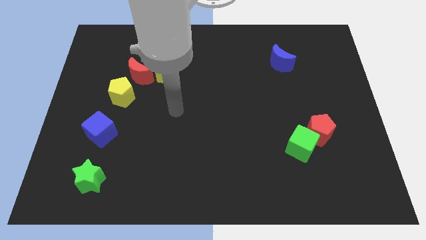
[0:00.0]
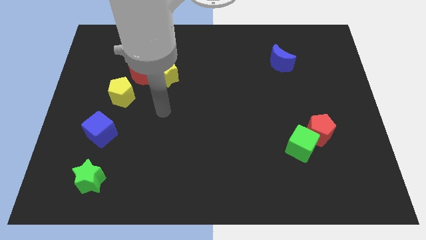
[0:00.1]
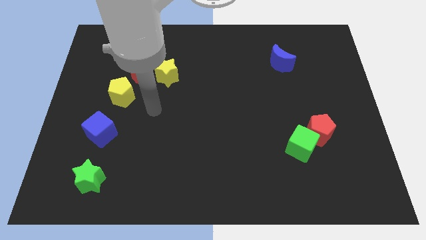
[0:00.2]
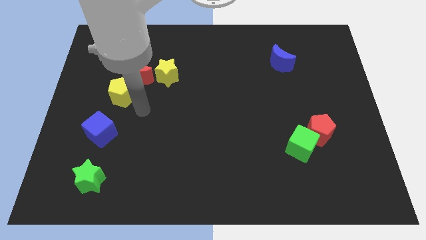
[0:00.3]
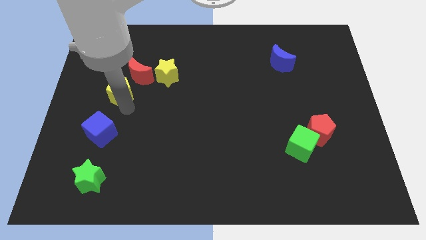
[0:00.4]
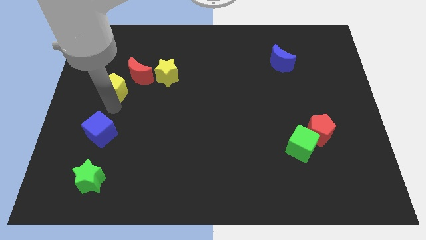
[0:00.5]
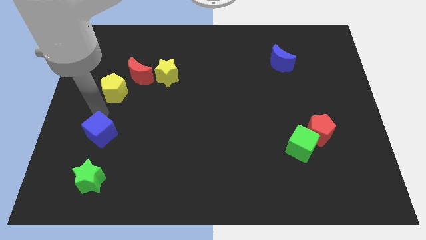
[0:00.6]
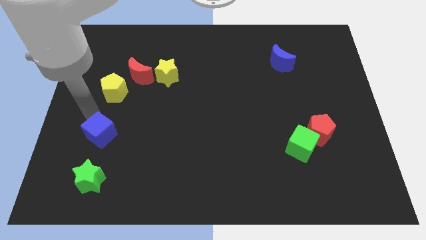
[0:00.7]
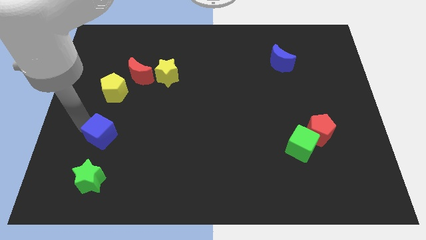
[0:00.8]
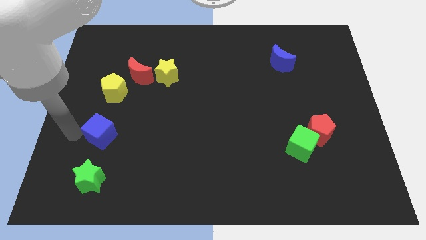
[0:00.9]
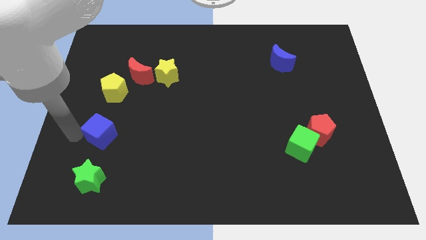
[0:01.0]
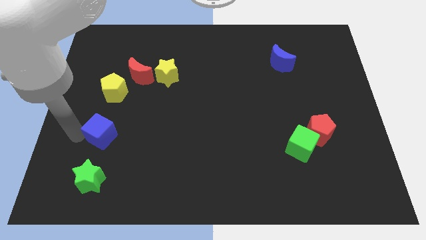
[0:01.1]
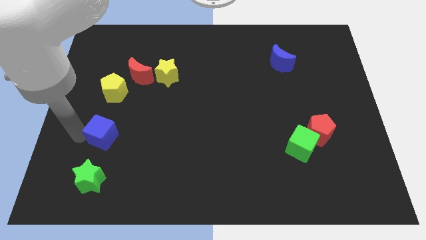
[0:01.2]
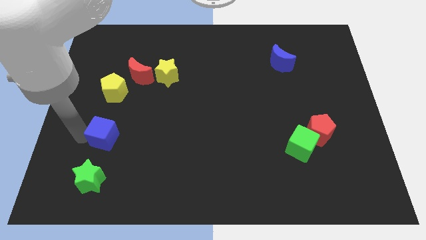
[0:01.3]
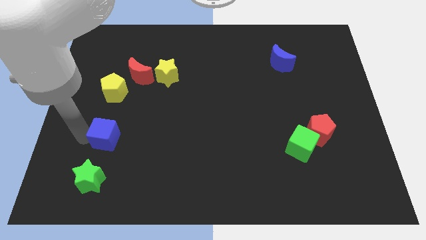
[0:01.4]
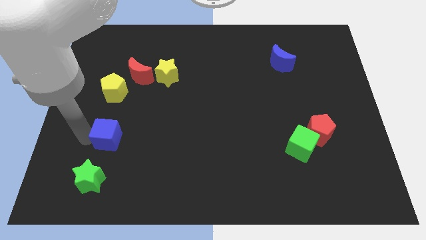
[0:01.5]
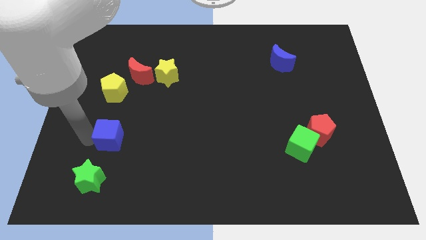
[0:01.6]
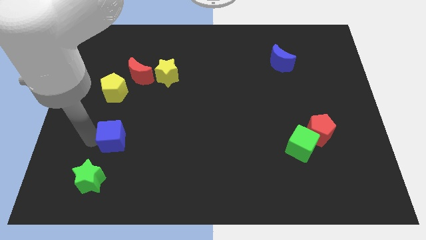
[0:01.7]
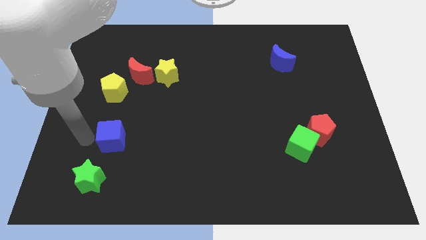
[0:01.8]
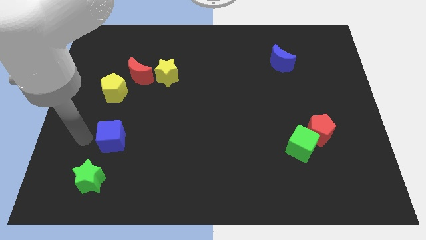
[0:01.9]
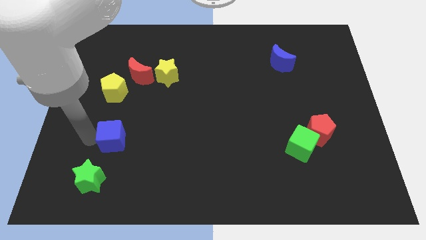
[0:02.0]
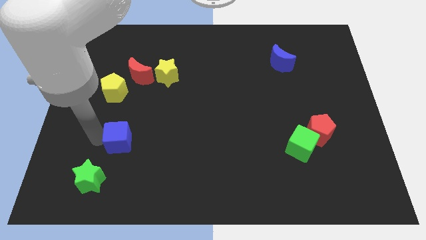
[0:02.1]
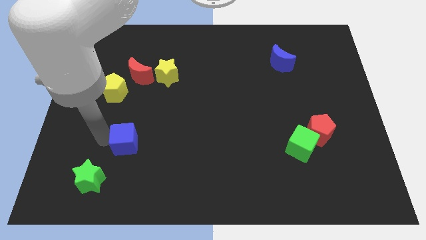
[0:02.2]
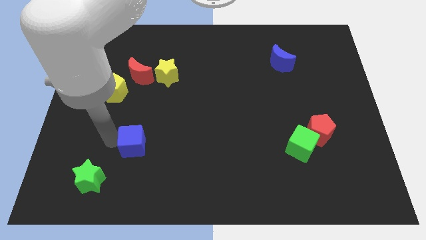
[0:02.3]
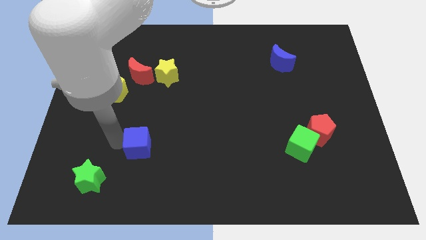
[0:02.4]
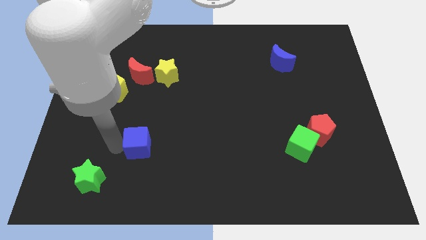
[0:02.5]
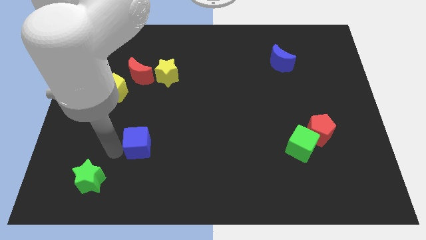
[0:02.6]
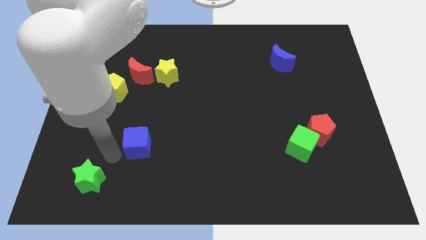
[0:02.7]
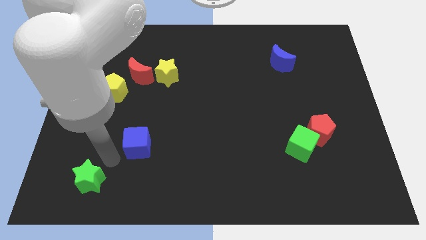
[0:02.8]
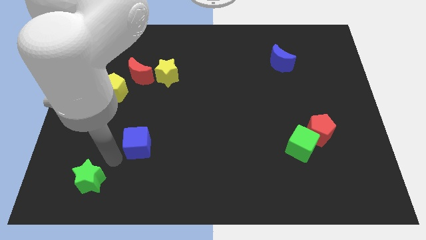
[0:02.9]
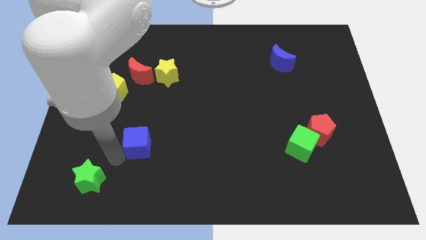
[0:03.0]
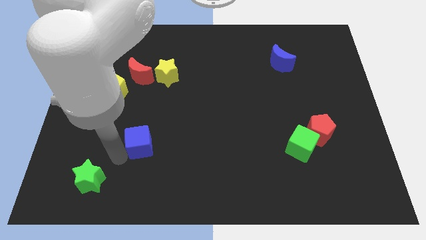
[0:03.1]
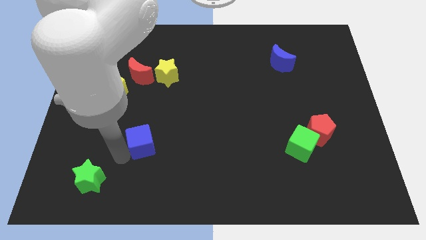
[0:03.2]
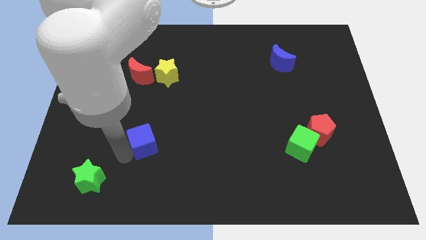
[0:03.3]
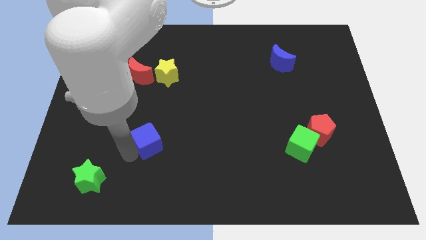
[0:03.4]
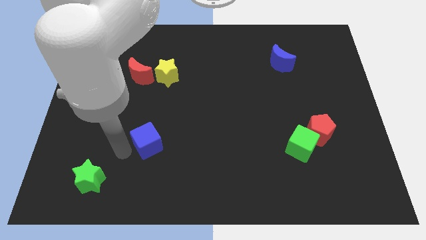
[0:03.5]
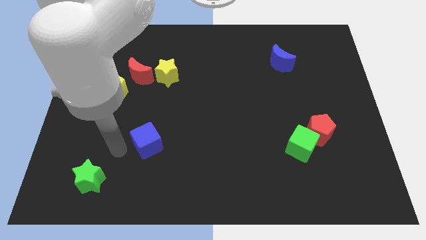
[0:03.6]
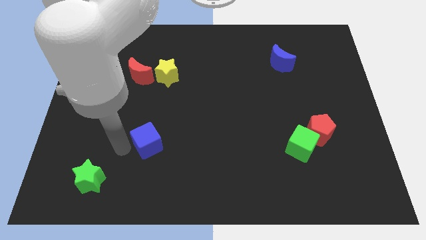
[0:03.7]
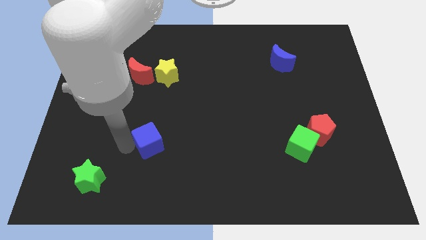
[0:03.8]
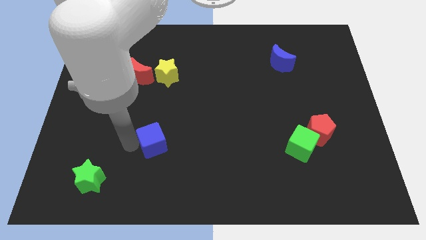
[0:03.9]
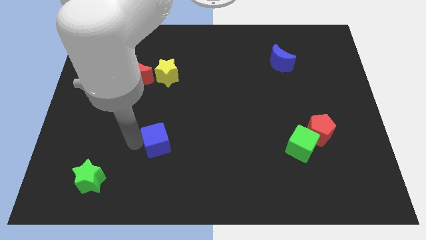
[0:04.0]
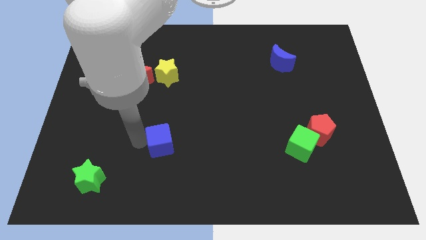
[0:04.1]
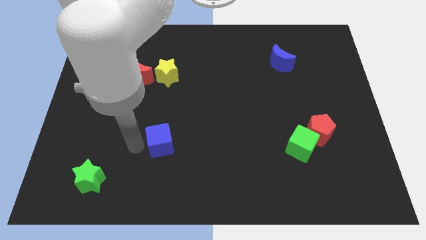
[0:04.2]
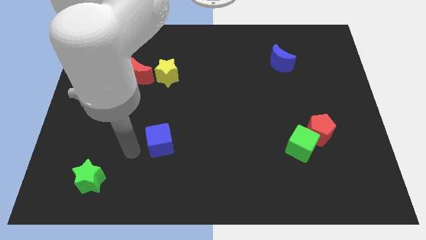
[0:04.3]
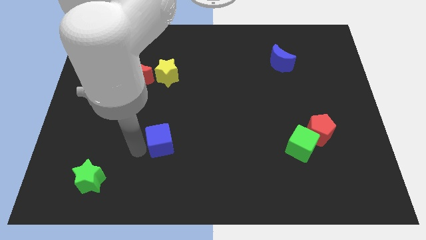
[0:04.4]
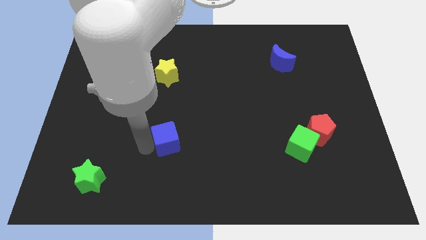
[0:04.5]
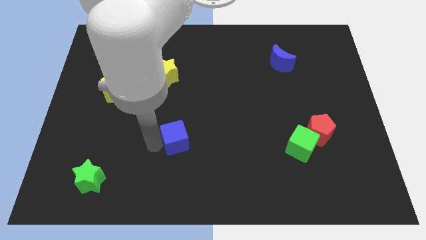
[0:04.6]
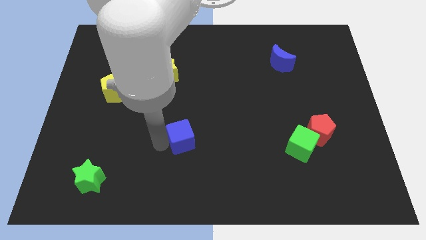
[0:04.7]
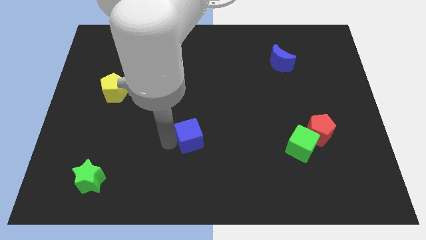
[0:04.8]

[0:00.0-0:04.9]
push the blue cube to the right

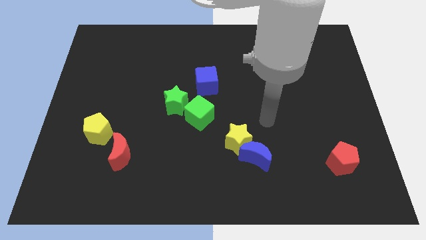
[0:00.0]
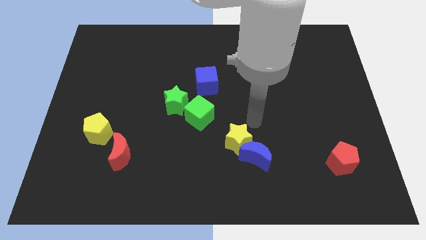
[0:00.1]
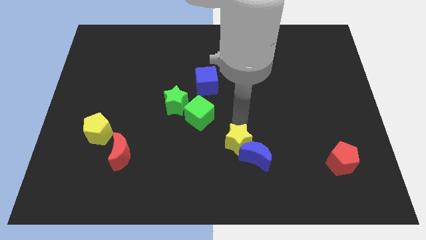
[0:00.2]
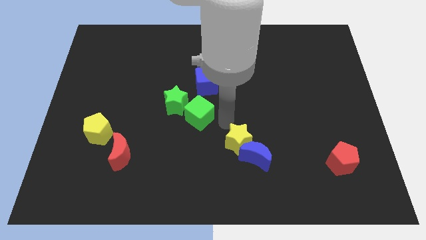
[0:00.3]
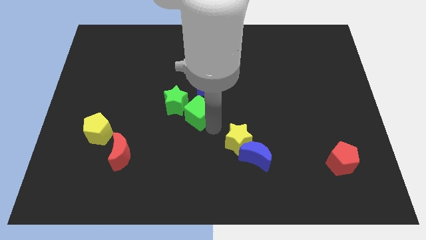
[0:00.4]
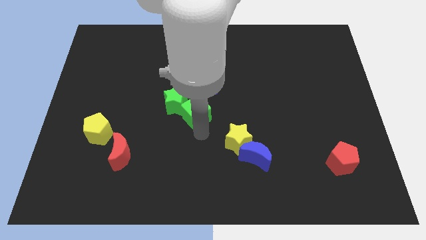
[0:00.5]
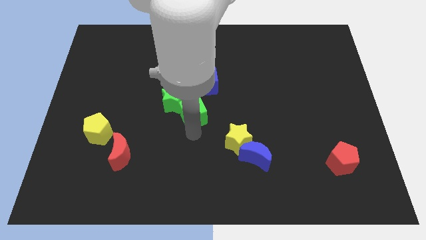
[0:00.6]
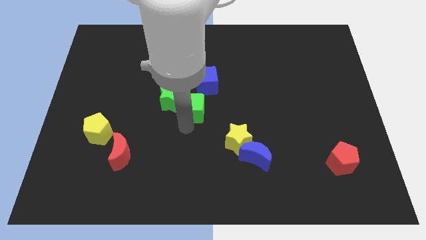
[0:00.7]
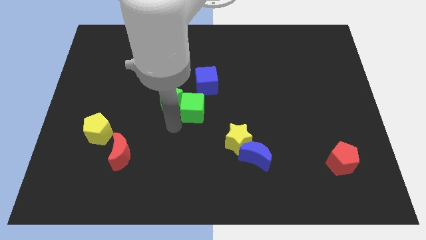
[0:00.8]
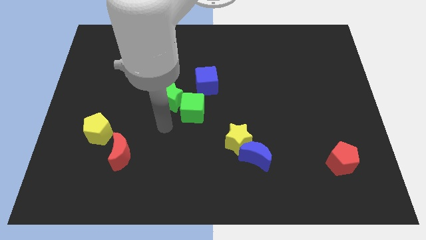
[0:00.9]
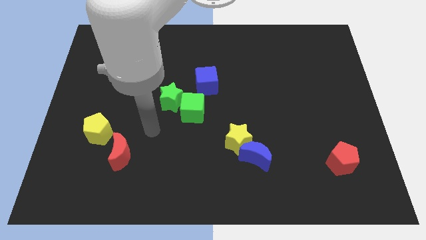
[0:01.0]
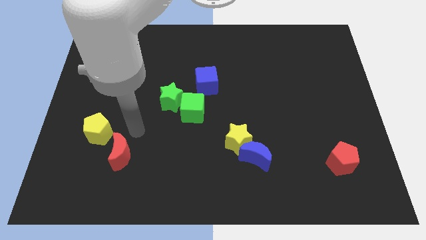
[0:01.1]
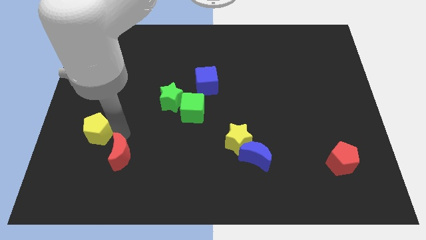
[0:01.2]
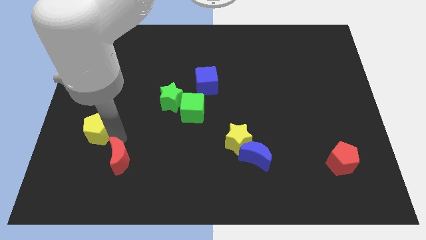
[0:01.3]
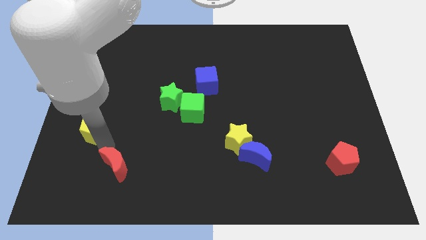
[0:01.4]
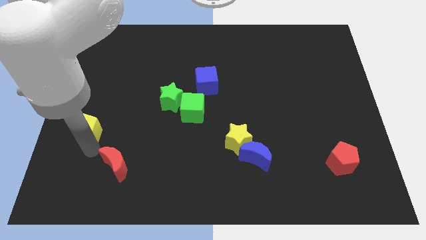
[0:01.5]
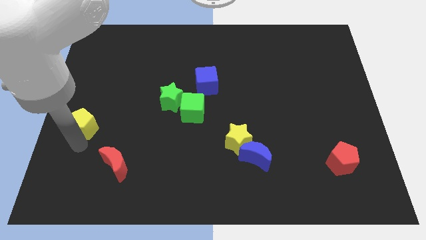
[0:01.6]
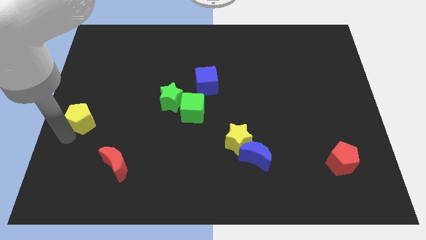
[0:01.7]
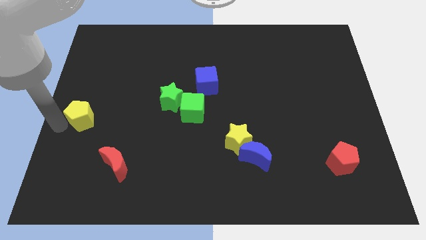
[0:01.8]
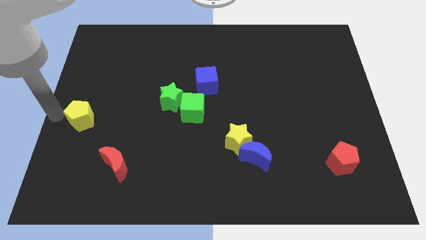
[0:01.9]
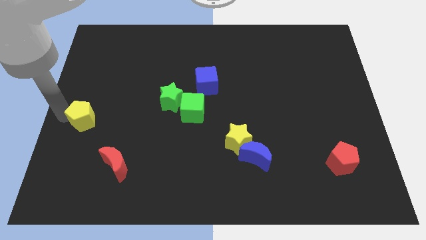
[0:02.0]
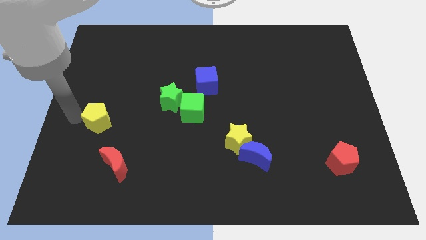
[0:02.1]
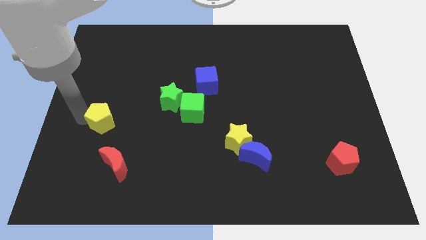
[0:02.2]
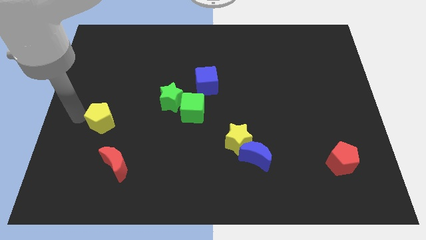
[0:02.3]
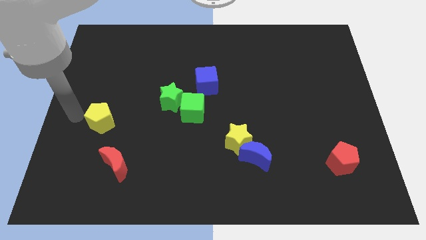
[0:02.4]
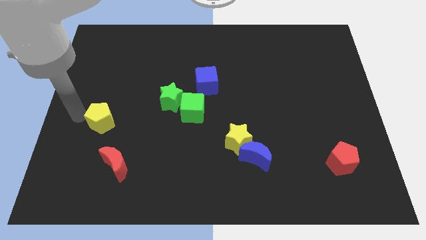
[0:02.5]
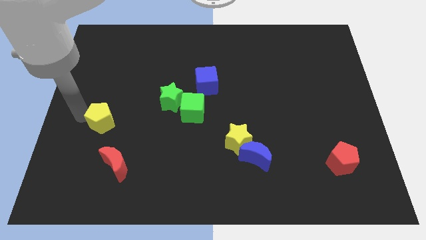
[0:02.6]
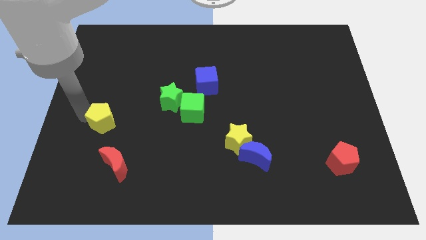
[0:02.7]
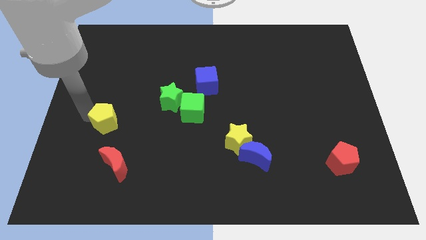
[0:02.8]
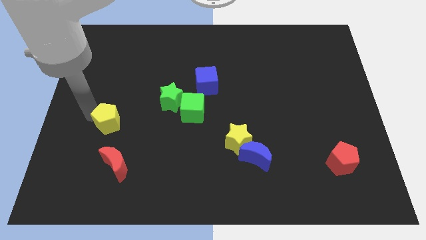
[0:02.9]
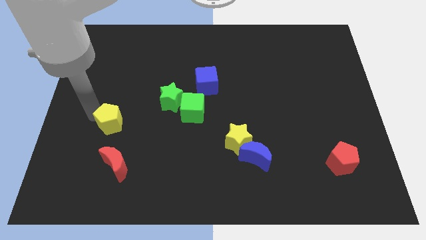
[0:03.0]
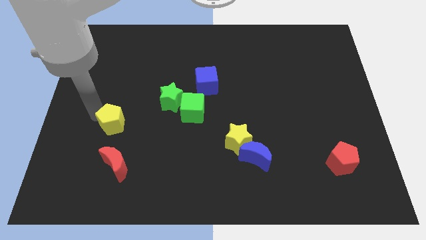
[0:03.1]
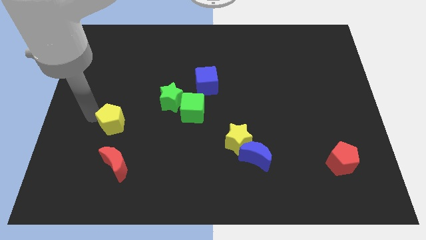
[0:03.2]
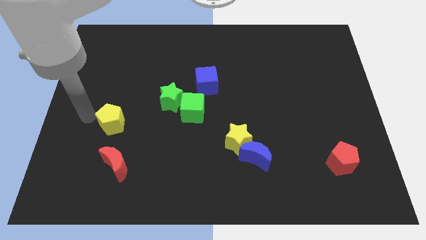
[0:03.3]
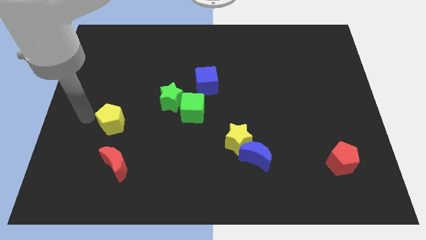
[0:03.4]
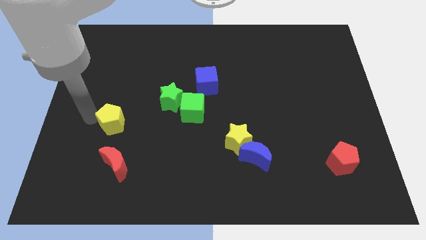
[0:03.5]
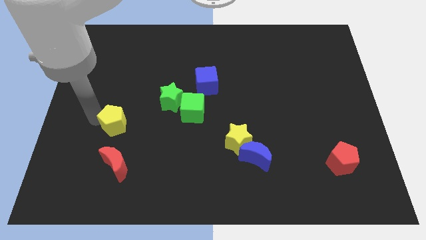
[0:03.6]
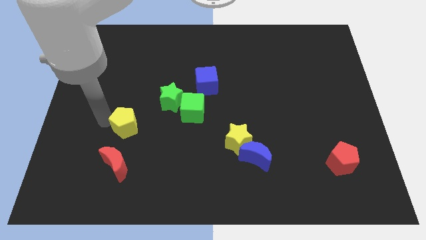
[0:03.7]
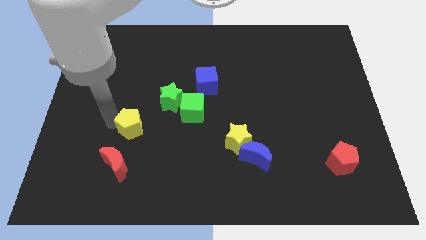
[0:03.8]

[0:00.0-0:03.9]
slide the yellow pentagon a bit right
